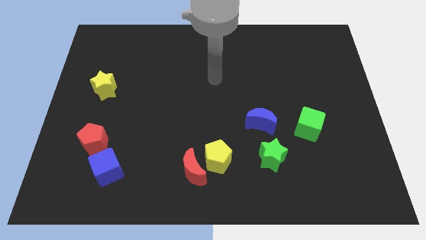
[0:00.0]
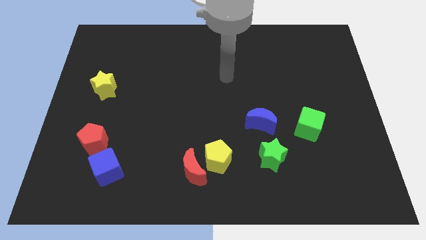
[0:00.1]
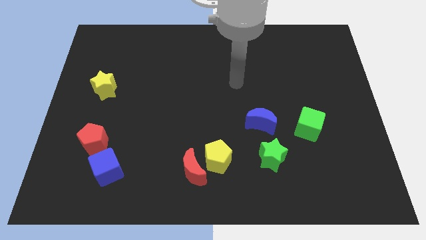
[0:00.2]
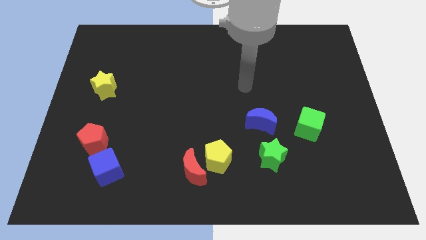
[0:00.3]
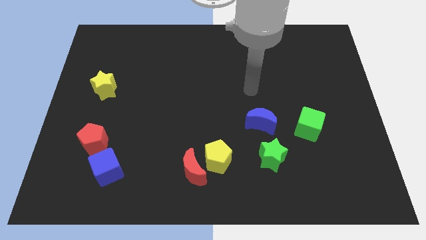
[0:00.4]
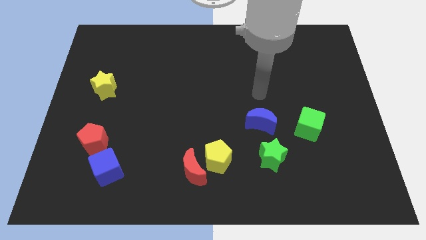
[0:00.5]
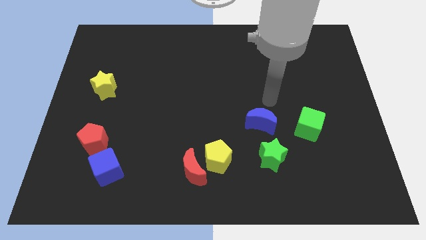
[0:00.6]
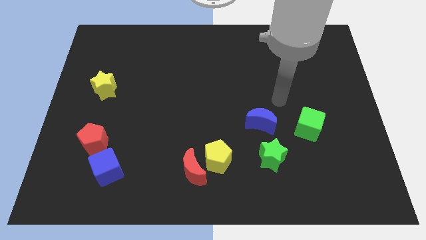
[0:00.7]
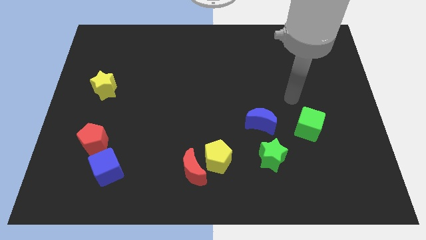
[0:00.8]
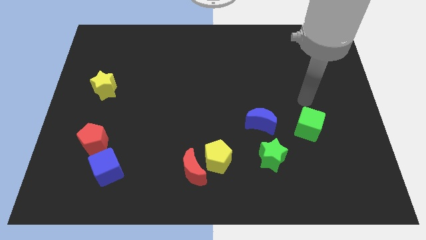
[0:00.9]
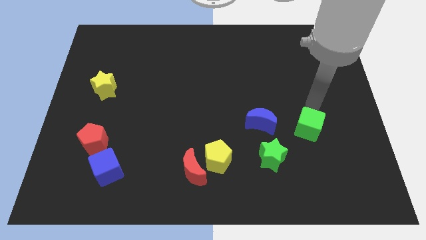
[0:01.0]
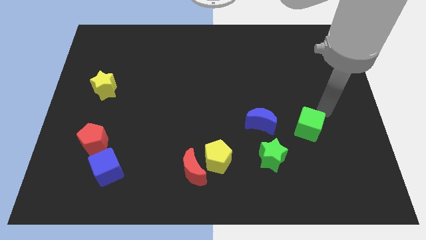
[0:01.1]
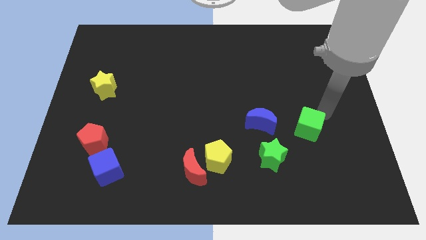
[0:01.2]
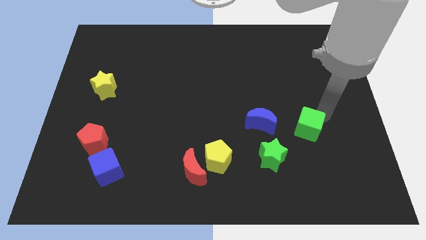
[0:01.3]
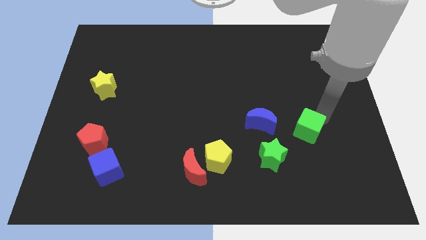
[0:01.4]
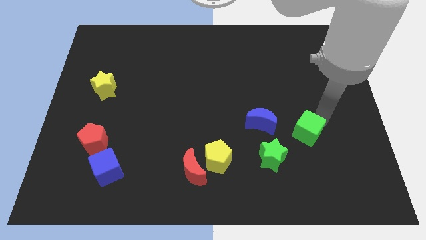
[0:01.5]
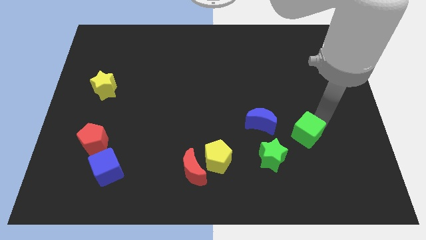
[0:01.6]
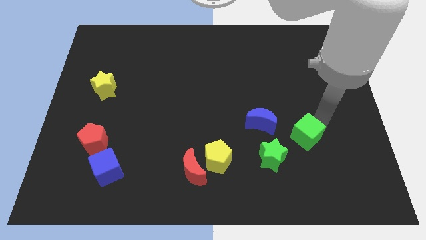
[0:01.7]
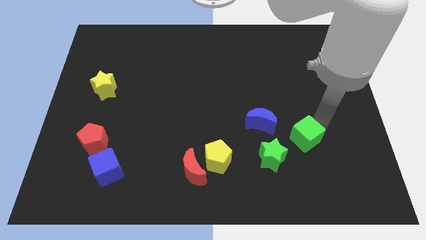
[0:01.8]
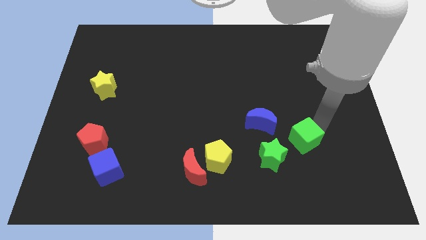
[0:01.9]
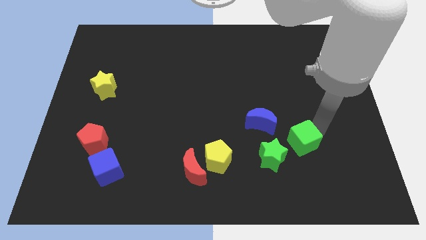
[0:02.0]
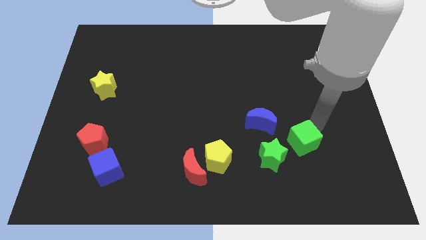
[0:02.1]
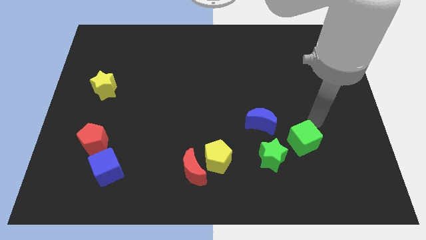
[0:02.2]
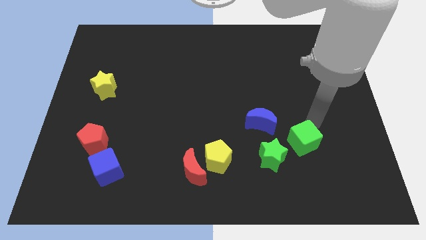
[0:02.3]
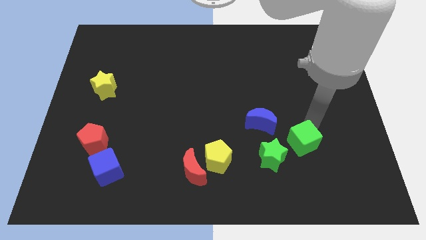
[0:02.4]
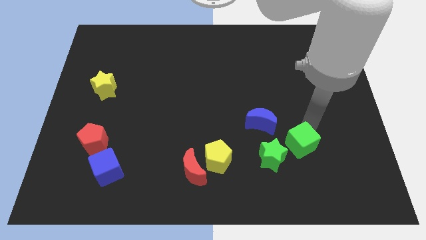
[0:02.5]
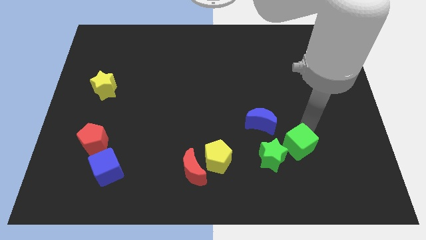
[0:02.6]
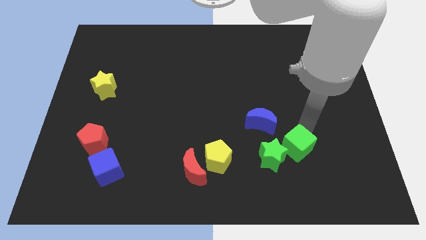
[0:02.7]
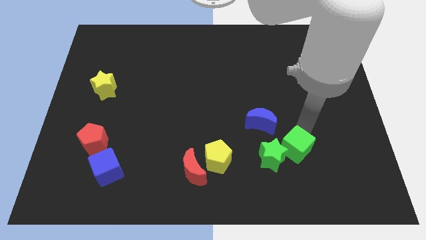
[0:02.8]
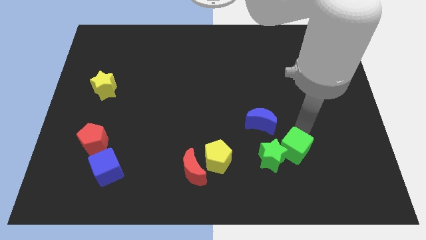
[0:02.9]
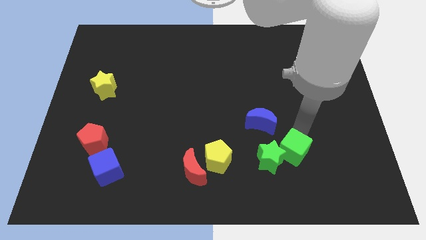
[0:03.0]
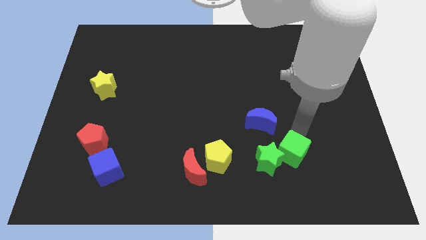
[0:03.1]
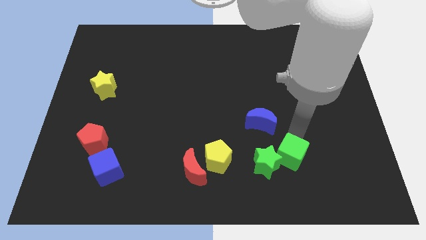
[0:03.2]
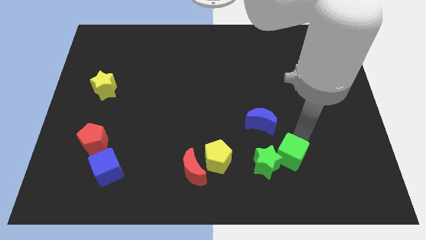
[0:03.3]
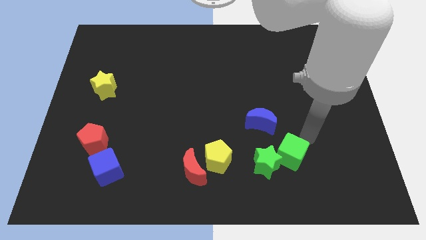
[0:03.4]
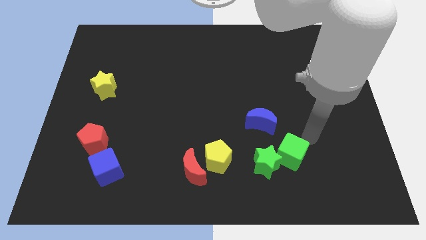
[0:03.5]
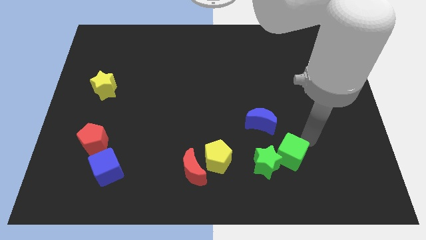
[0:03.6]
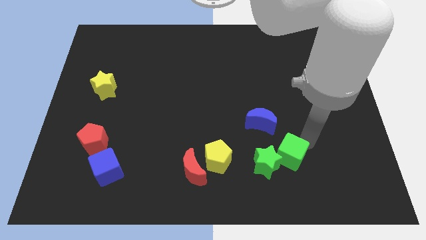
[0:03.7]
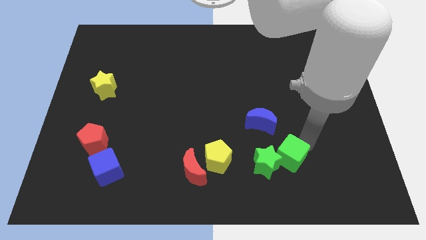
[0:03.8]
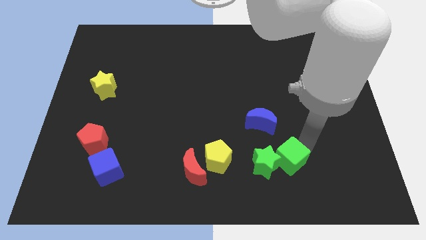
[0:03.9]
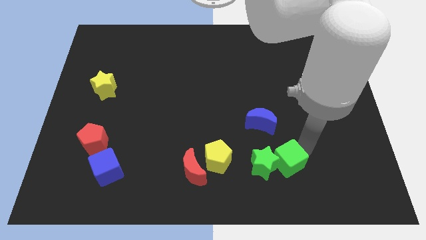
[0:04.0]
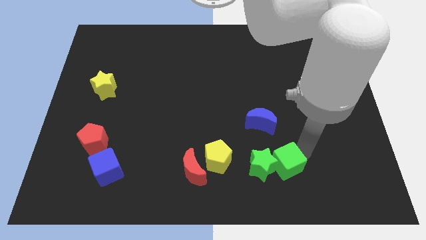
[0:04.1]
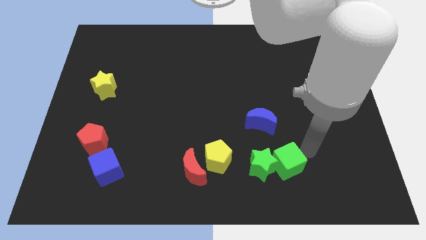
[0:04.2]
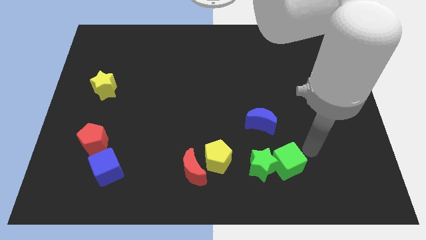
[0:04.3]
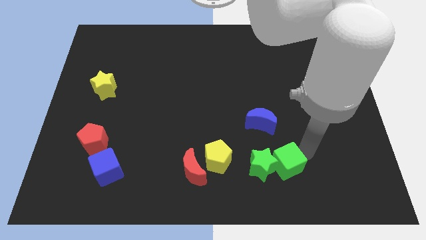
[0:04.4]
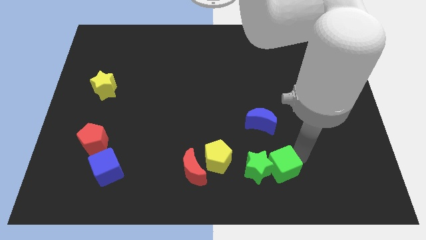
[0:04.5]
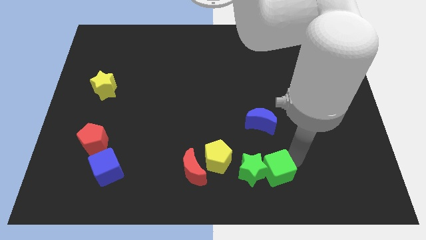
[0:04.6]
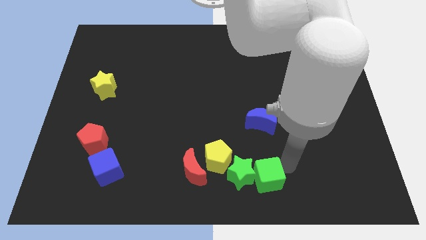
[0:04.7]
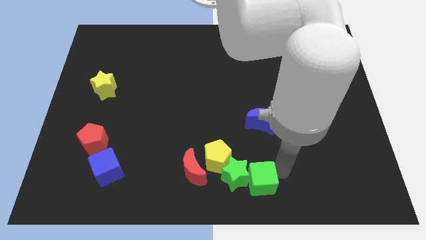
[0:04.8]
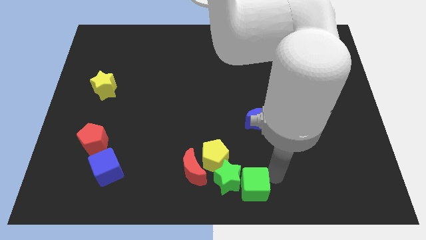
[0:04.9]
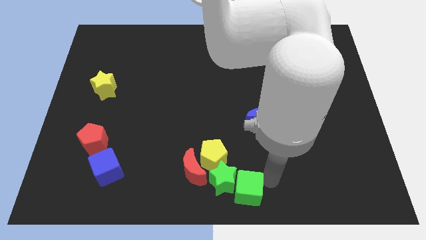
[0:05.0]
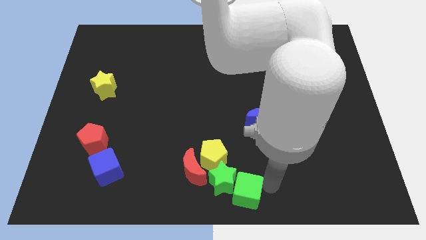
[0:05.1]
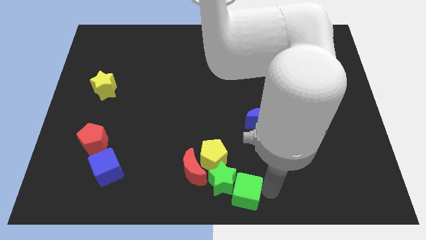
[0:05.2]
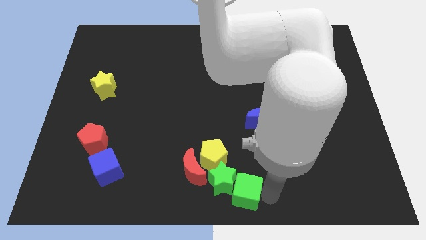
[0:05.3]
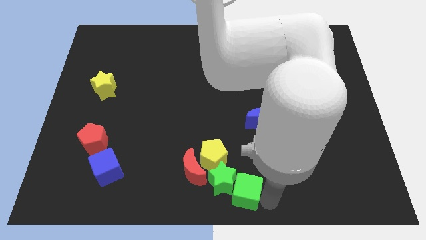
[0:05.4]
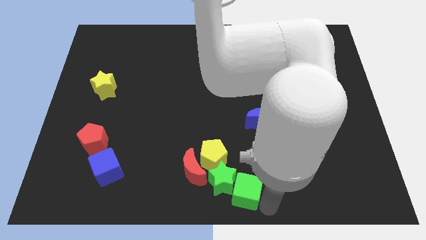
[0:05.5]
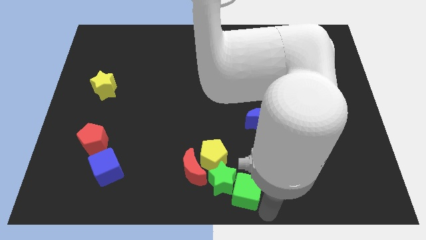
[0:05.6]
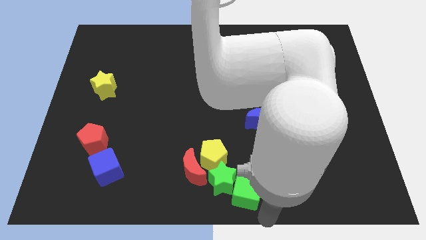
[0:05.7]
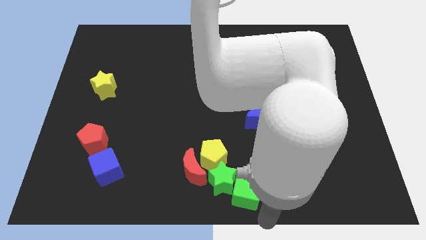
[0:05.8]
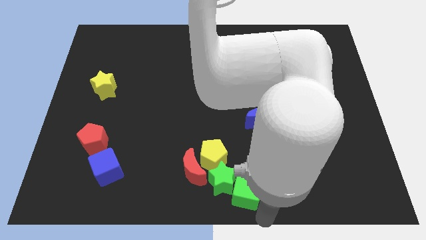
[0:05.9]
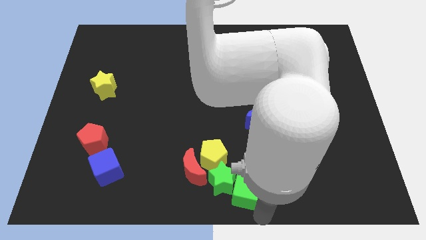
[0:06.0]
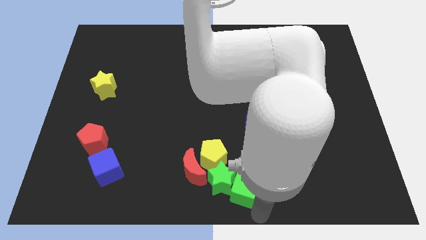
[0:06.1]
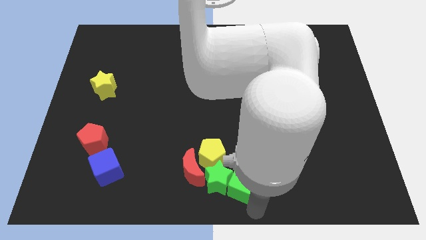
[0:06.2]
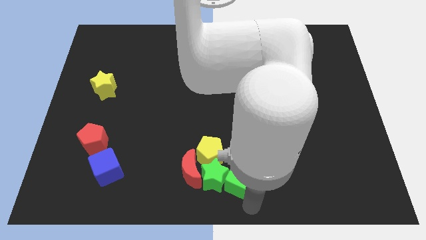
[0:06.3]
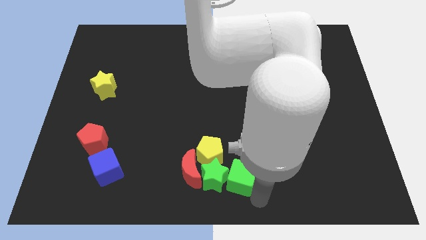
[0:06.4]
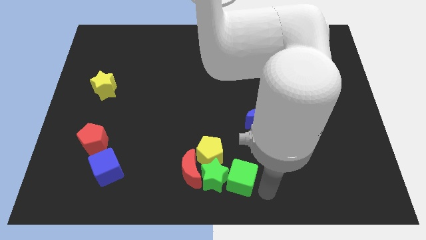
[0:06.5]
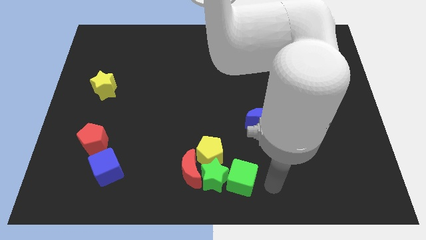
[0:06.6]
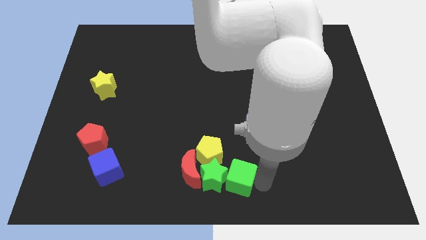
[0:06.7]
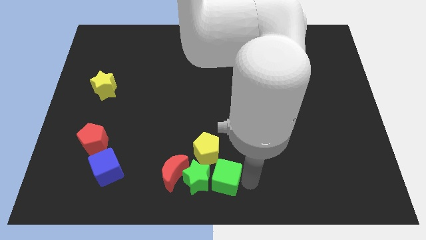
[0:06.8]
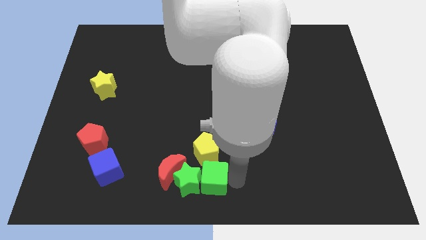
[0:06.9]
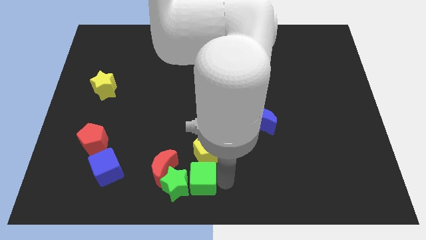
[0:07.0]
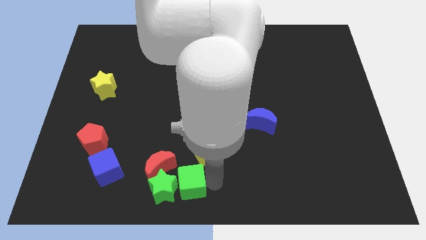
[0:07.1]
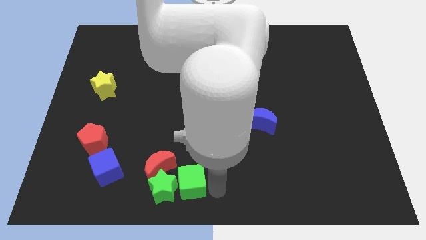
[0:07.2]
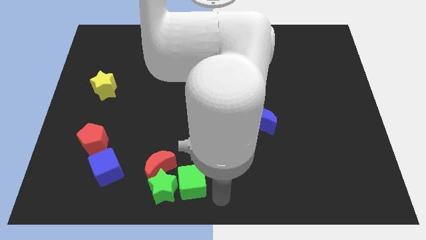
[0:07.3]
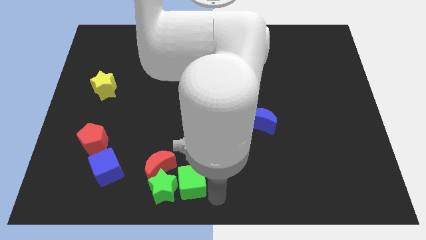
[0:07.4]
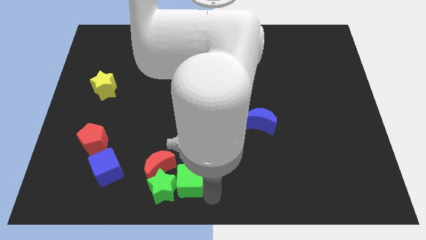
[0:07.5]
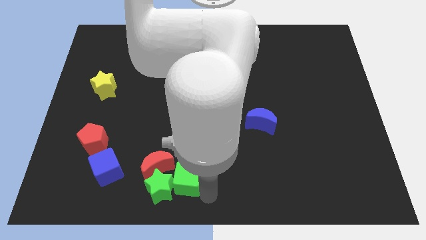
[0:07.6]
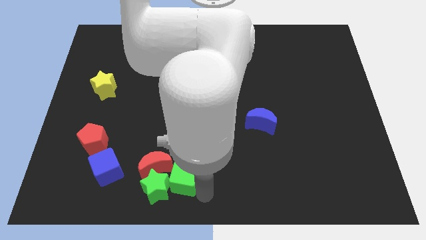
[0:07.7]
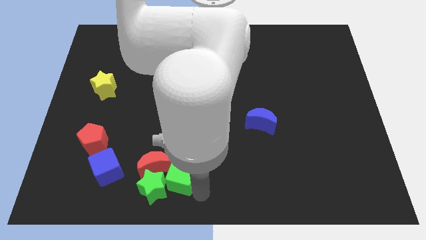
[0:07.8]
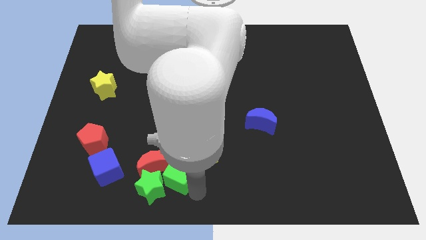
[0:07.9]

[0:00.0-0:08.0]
move the green cube close to the red moon
